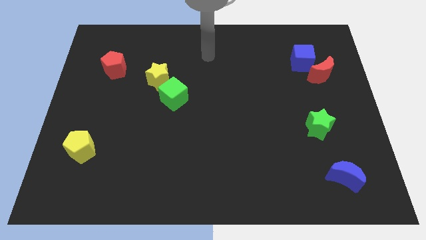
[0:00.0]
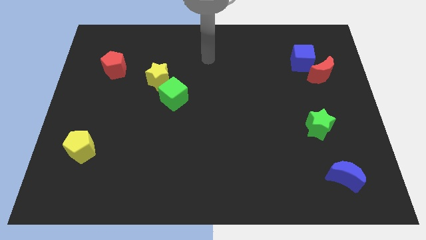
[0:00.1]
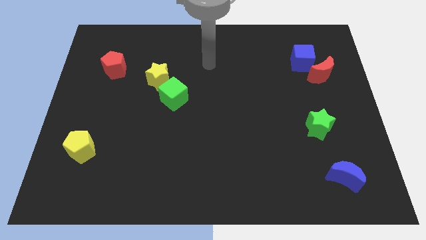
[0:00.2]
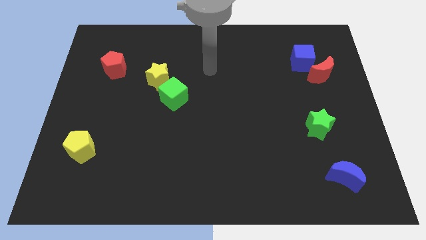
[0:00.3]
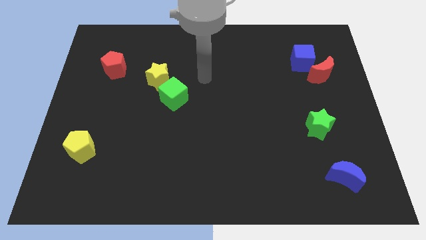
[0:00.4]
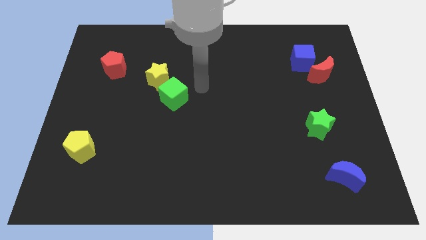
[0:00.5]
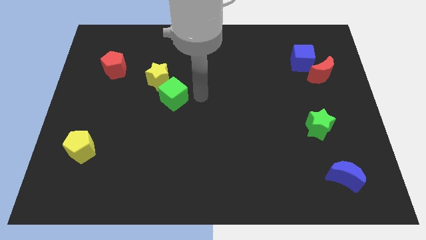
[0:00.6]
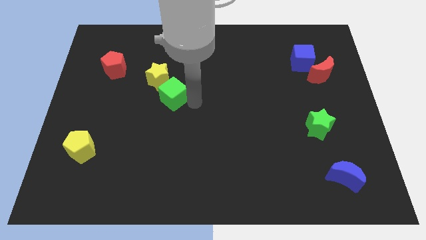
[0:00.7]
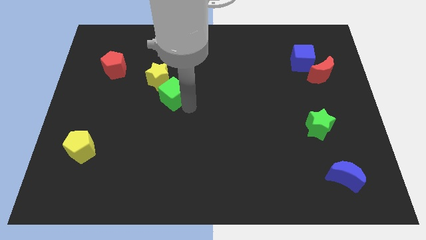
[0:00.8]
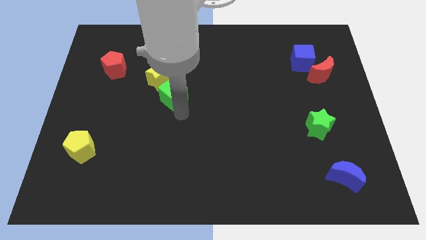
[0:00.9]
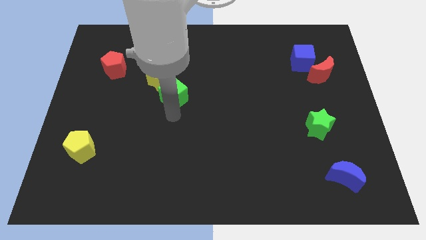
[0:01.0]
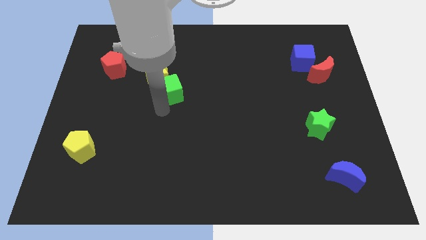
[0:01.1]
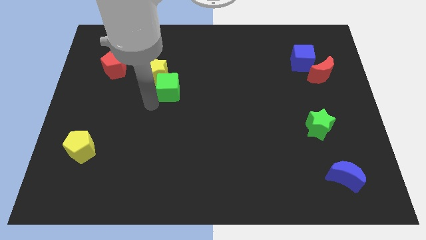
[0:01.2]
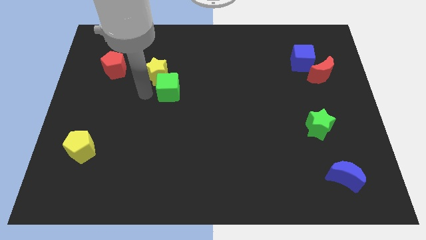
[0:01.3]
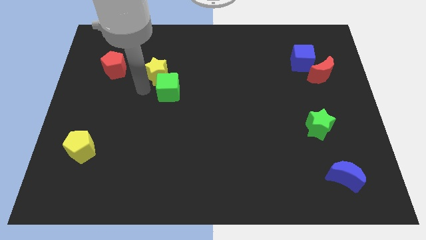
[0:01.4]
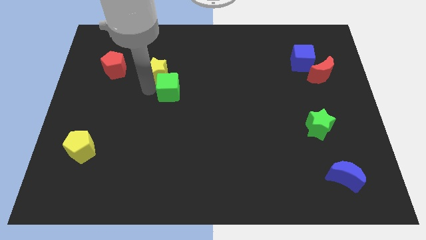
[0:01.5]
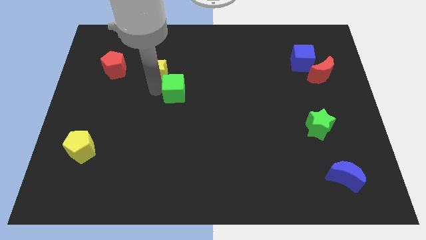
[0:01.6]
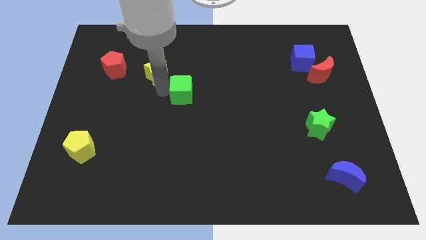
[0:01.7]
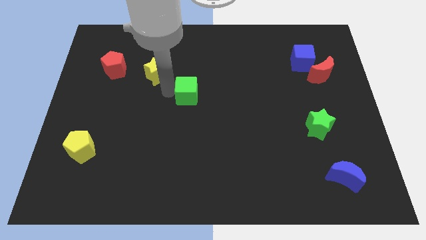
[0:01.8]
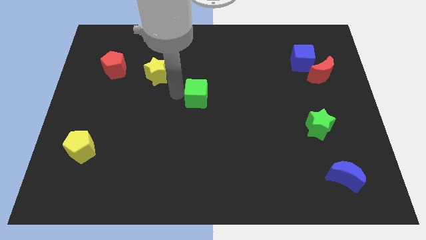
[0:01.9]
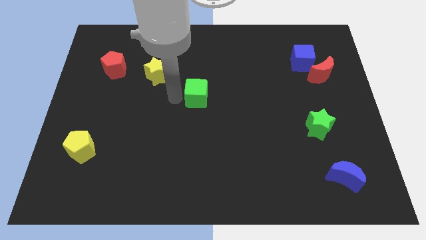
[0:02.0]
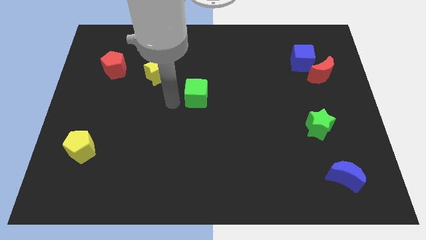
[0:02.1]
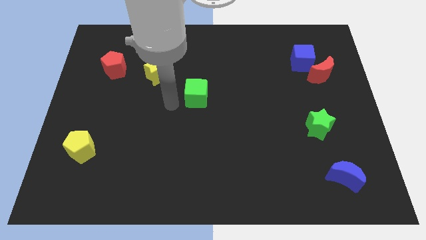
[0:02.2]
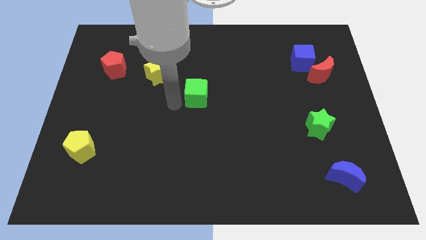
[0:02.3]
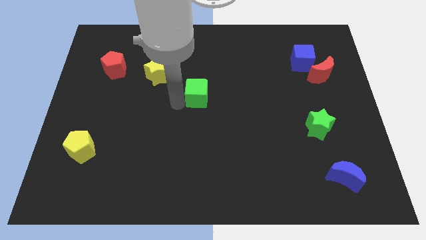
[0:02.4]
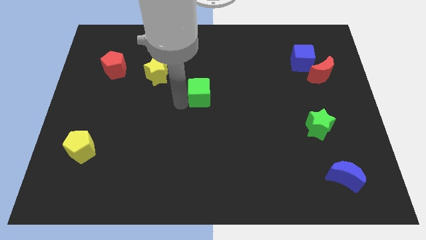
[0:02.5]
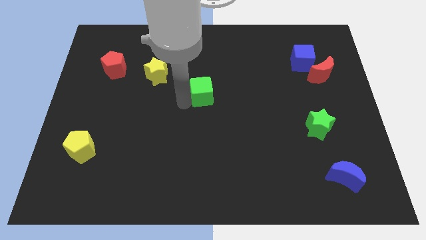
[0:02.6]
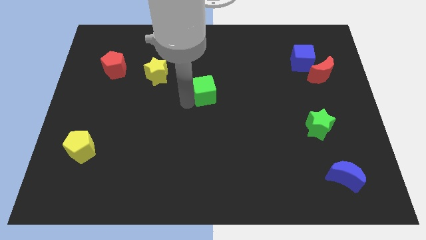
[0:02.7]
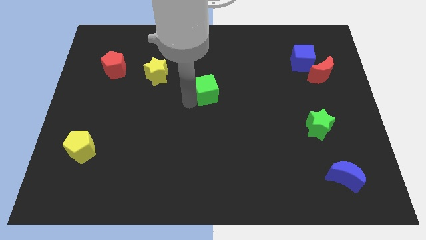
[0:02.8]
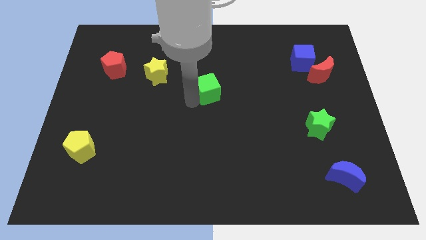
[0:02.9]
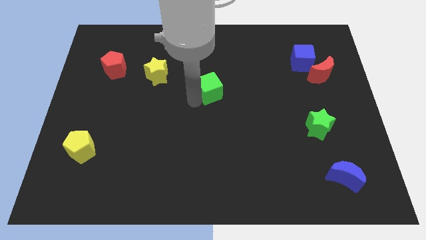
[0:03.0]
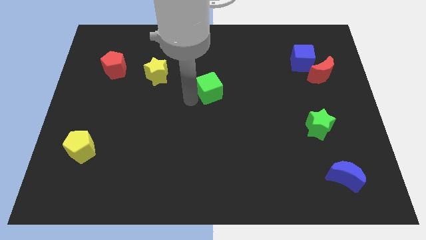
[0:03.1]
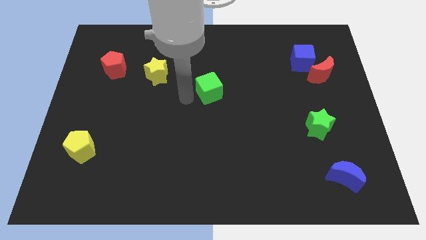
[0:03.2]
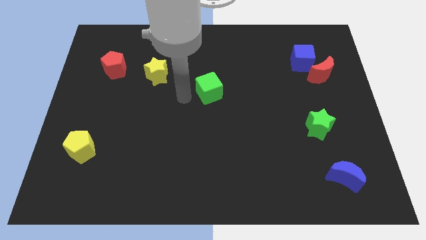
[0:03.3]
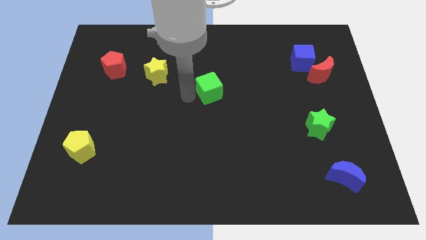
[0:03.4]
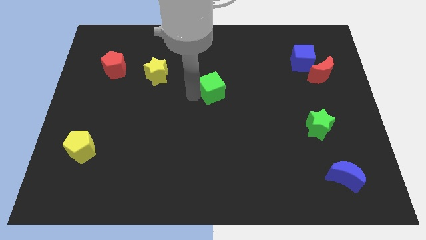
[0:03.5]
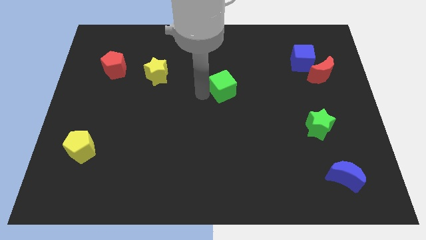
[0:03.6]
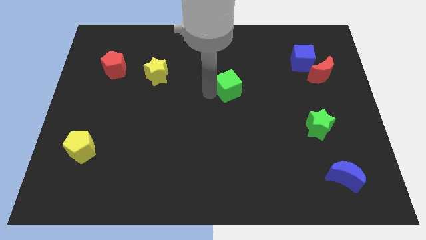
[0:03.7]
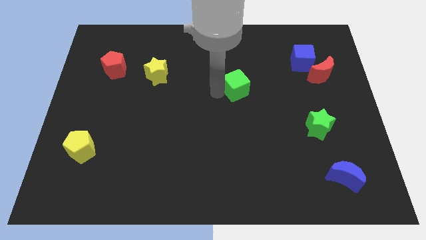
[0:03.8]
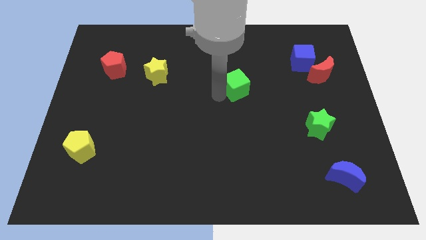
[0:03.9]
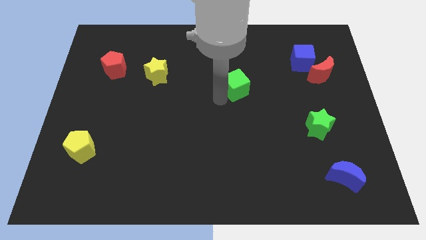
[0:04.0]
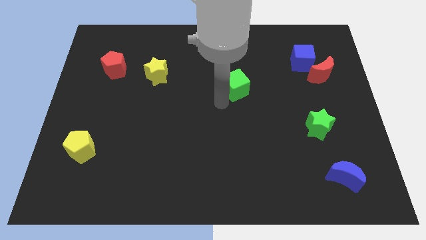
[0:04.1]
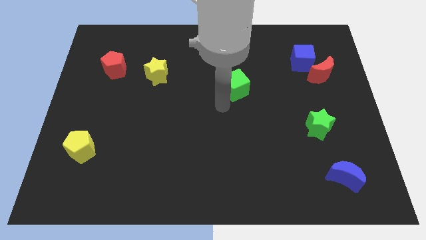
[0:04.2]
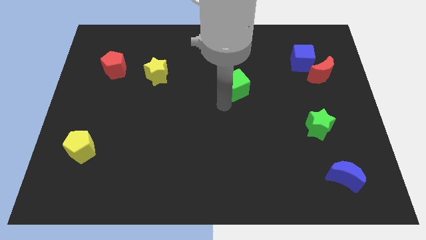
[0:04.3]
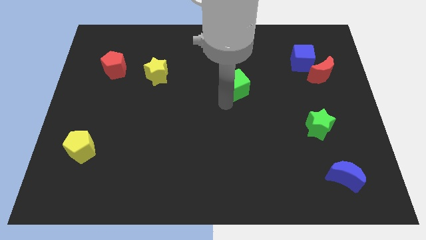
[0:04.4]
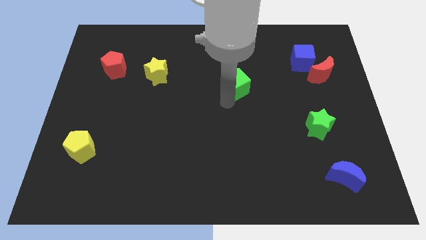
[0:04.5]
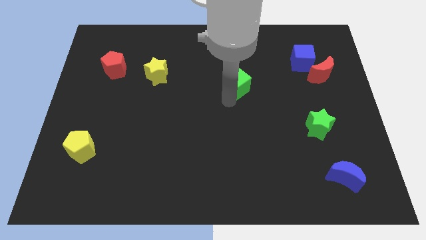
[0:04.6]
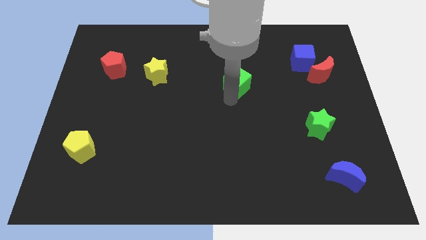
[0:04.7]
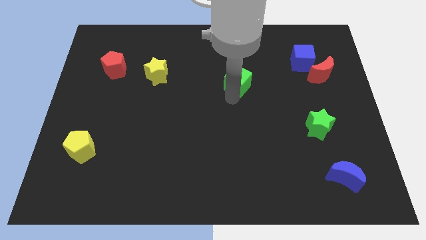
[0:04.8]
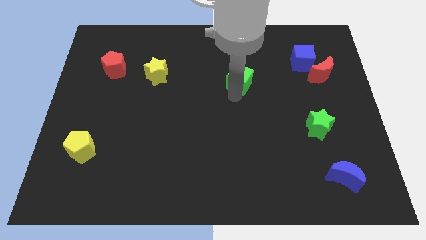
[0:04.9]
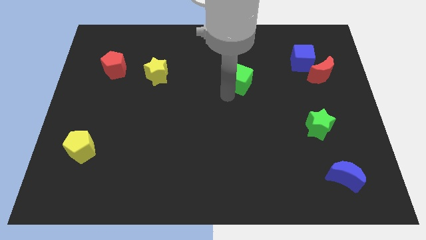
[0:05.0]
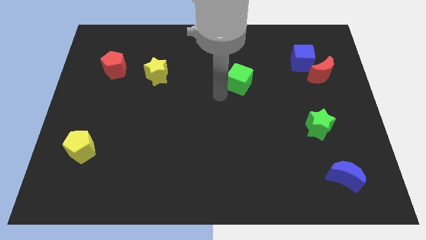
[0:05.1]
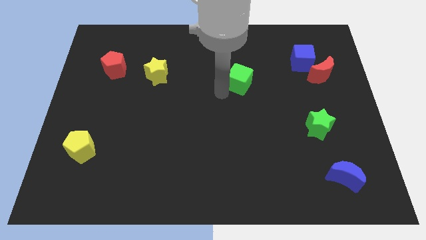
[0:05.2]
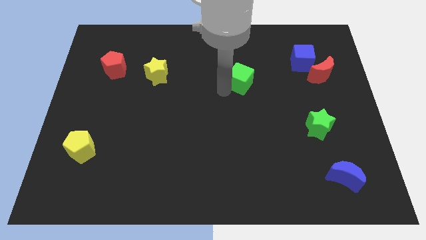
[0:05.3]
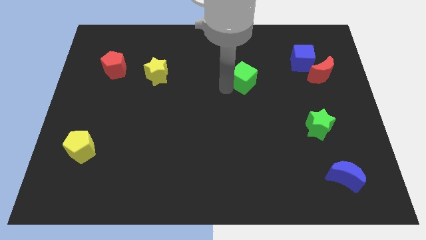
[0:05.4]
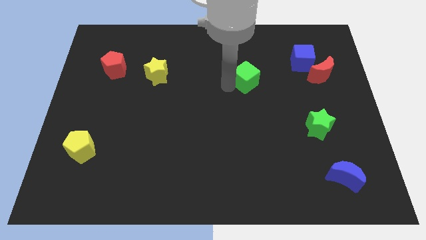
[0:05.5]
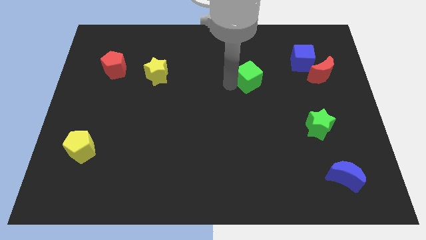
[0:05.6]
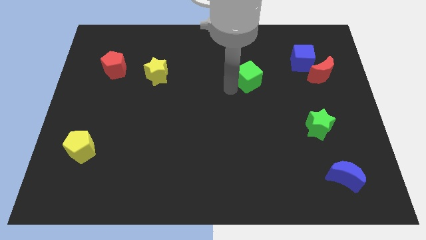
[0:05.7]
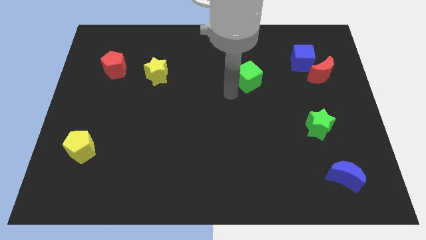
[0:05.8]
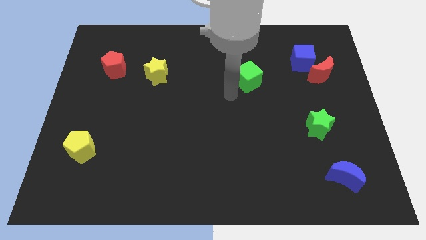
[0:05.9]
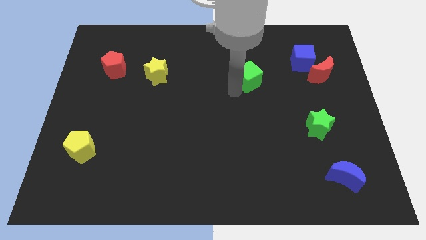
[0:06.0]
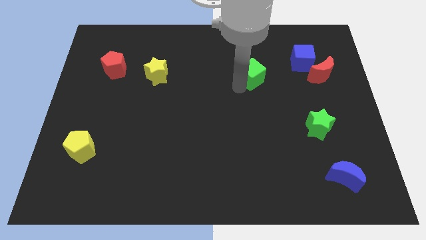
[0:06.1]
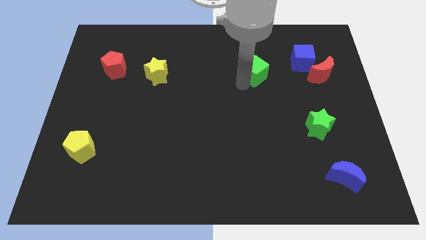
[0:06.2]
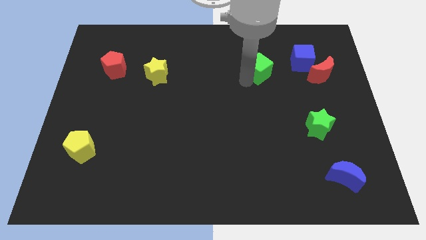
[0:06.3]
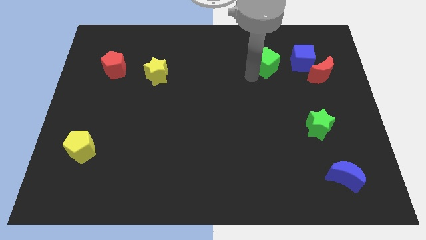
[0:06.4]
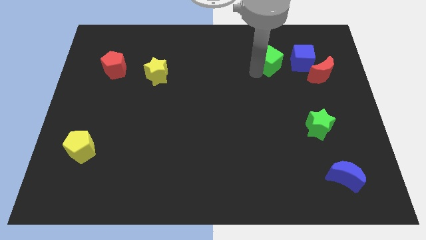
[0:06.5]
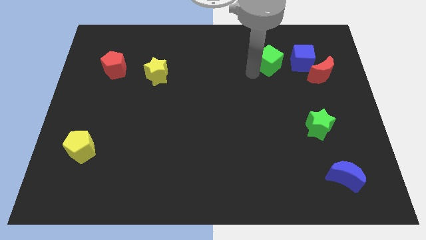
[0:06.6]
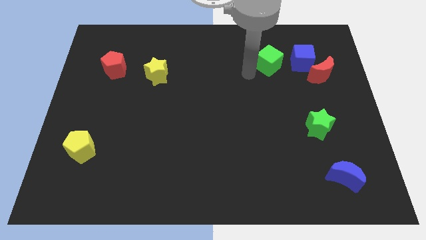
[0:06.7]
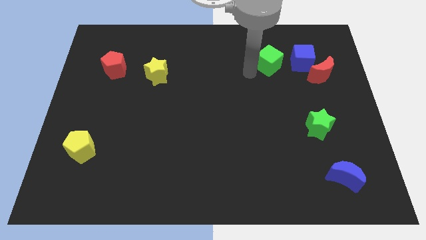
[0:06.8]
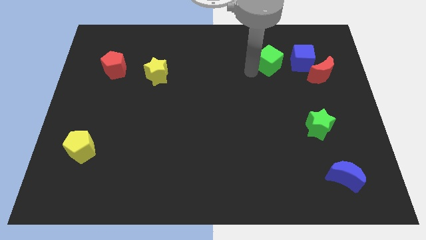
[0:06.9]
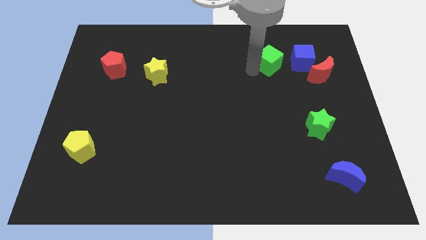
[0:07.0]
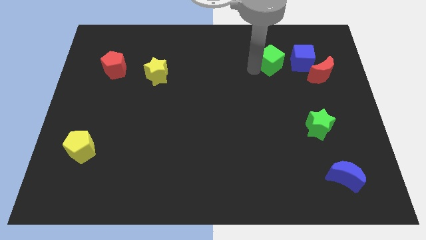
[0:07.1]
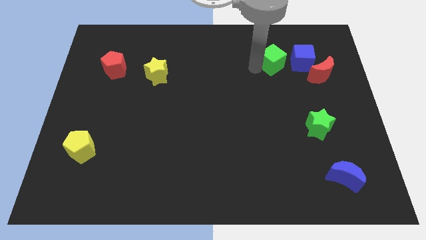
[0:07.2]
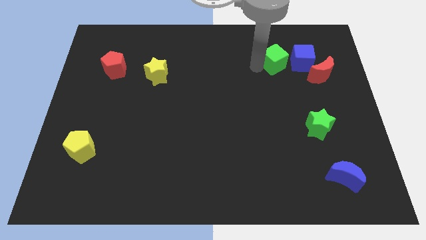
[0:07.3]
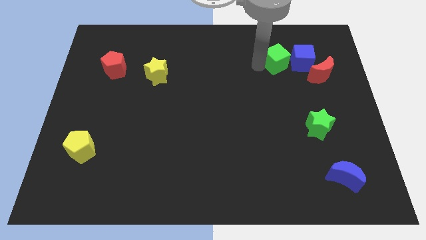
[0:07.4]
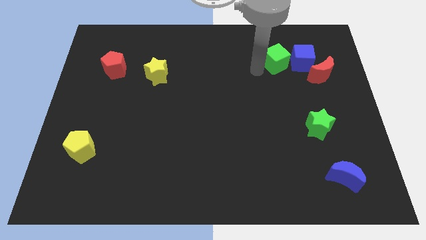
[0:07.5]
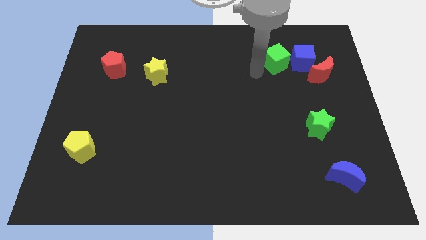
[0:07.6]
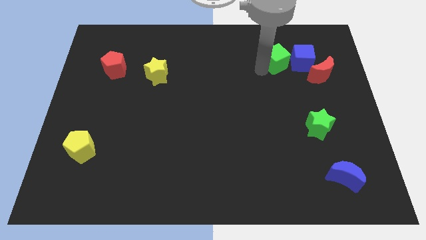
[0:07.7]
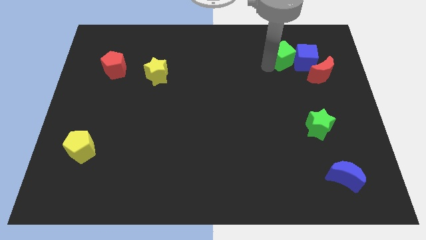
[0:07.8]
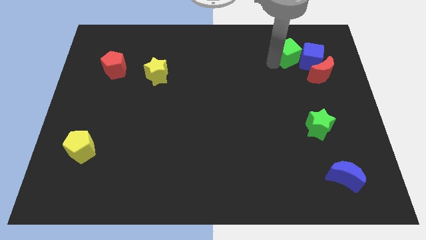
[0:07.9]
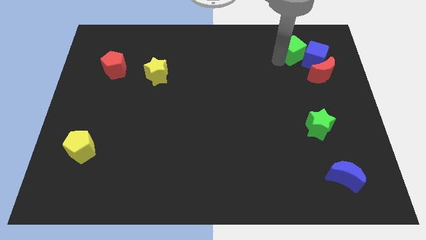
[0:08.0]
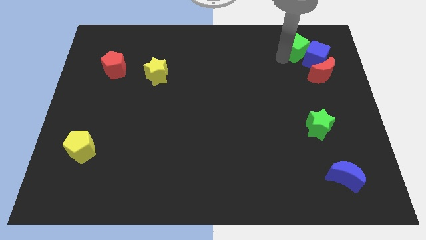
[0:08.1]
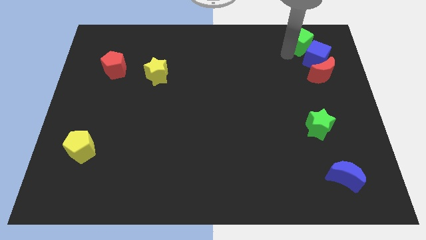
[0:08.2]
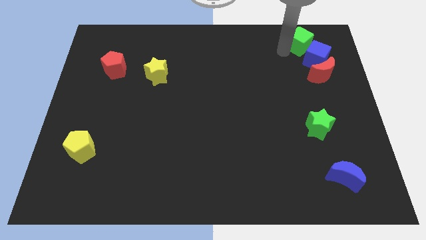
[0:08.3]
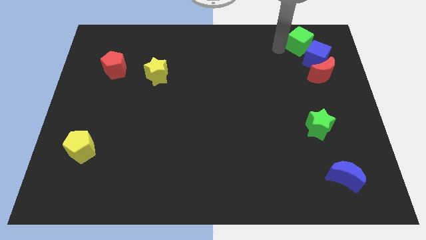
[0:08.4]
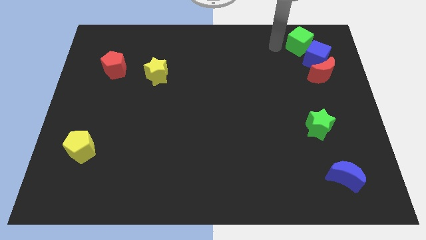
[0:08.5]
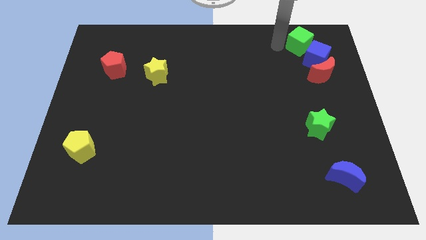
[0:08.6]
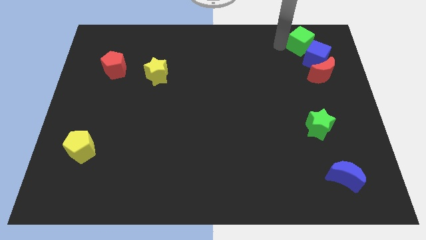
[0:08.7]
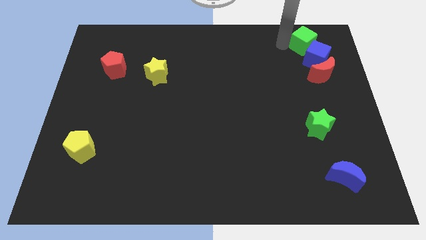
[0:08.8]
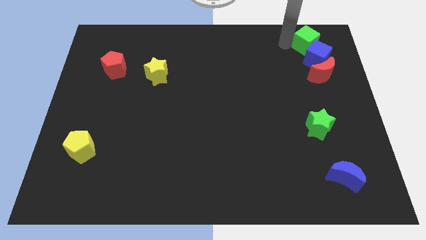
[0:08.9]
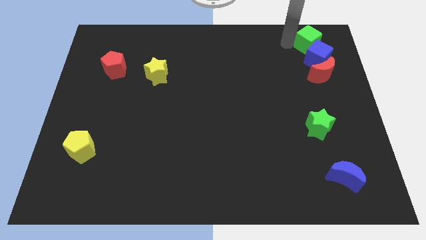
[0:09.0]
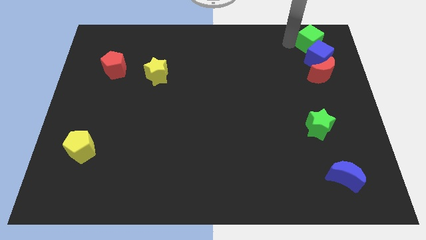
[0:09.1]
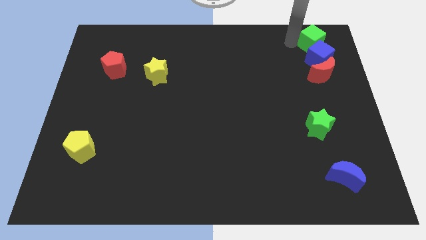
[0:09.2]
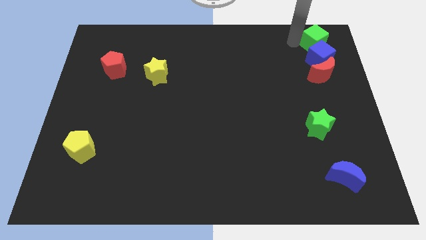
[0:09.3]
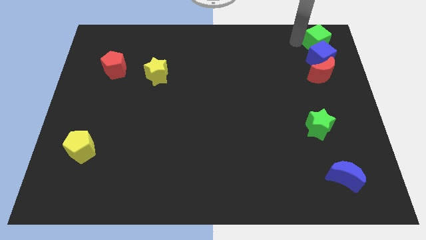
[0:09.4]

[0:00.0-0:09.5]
move the green cube to the top right
